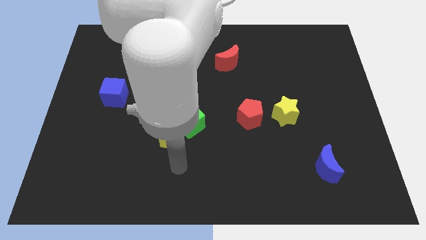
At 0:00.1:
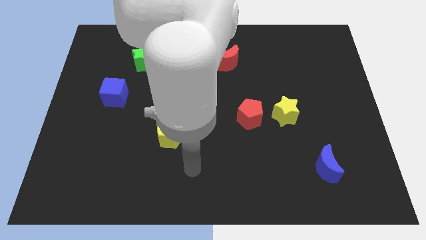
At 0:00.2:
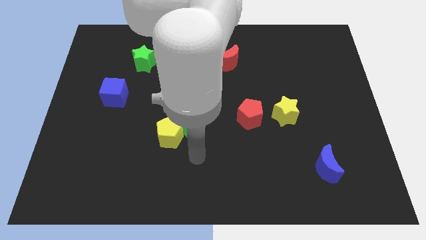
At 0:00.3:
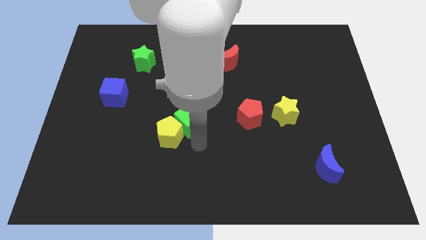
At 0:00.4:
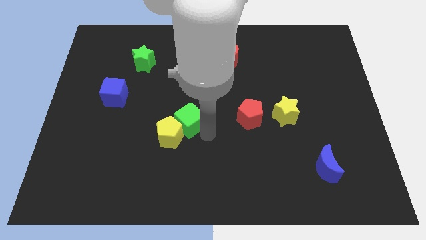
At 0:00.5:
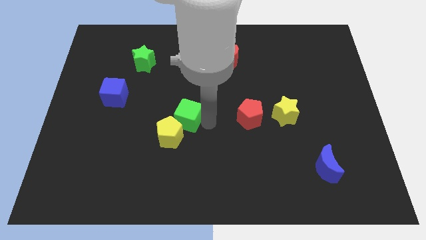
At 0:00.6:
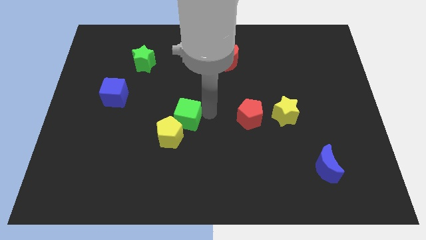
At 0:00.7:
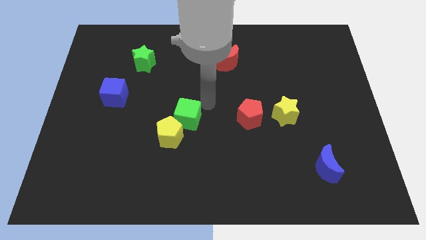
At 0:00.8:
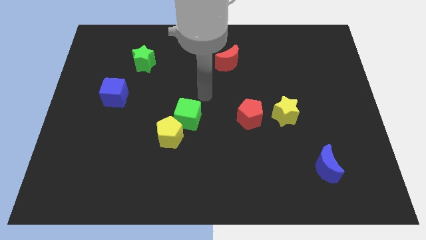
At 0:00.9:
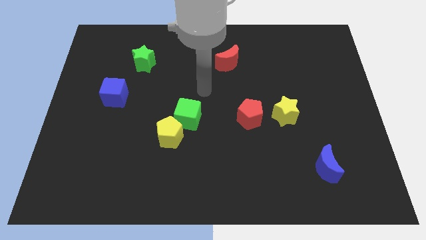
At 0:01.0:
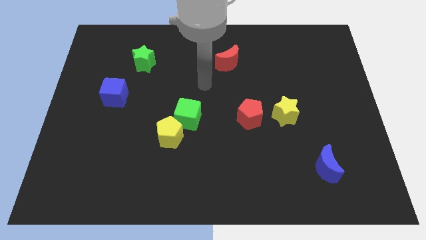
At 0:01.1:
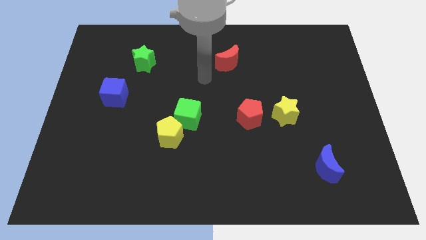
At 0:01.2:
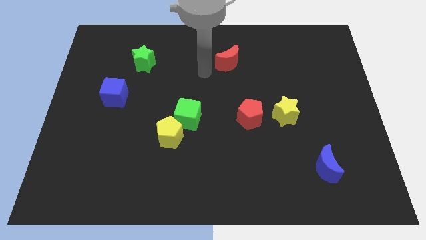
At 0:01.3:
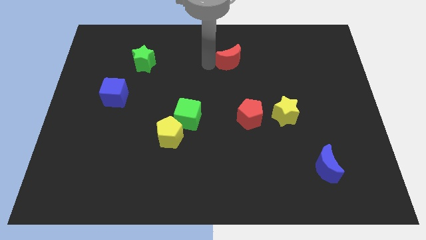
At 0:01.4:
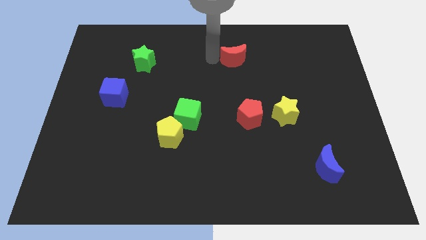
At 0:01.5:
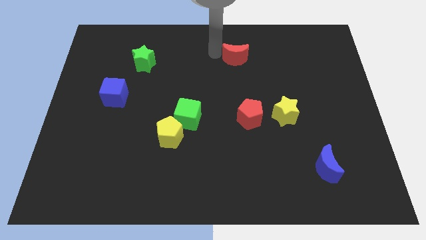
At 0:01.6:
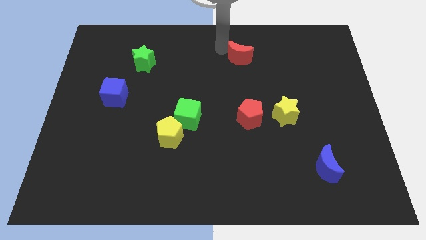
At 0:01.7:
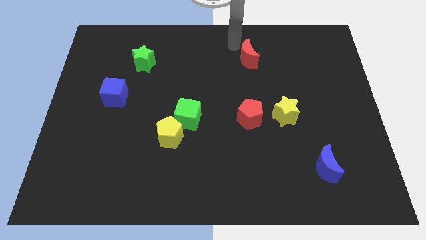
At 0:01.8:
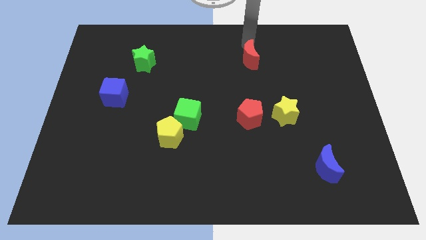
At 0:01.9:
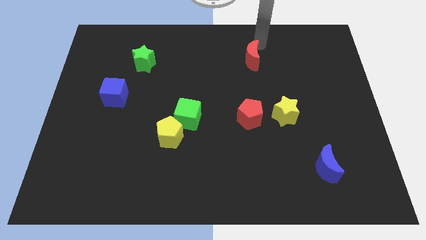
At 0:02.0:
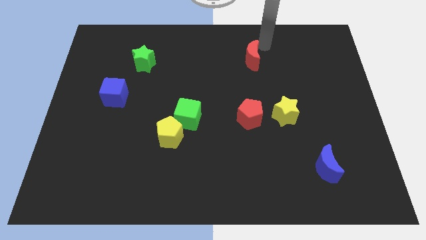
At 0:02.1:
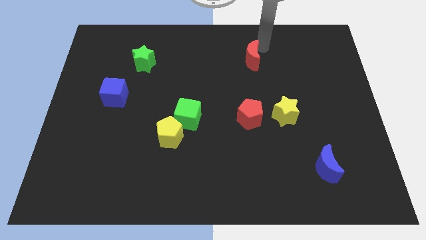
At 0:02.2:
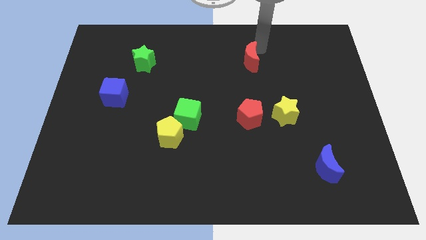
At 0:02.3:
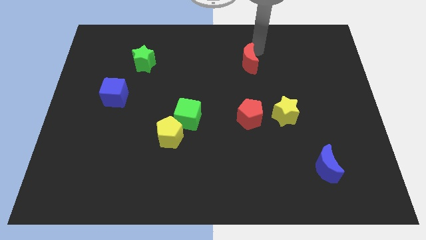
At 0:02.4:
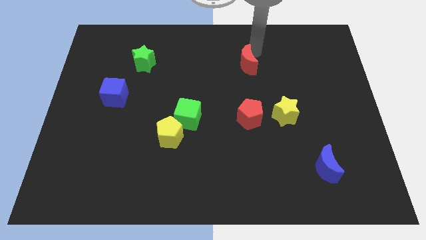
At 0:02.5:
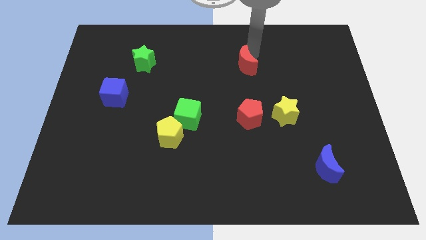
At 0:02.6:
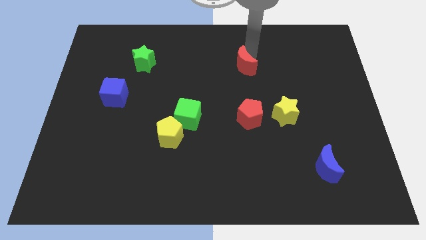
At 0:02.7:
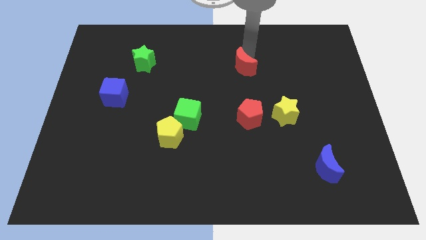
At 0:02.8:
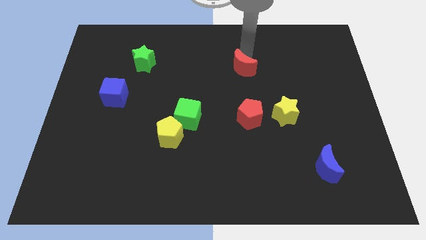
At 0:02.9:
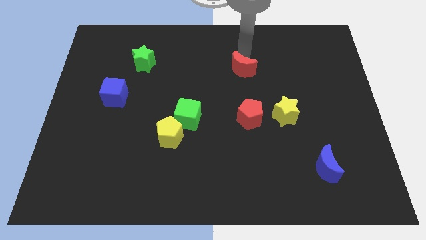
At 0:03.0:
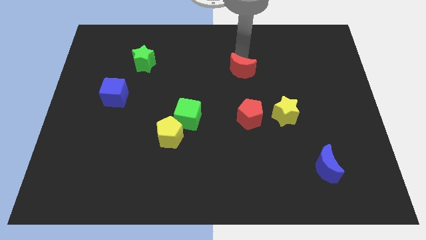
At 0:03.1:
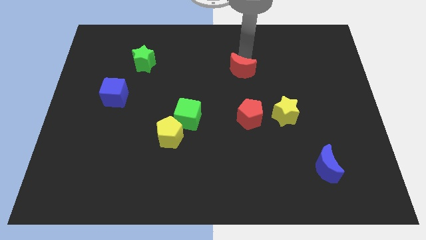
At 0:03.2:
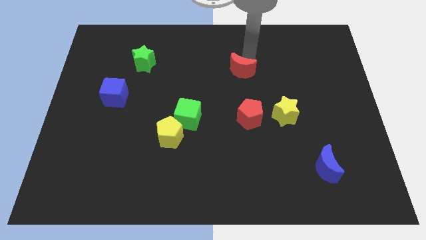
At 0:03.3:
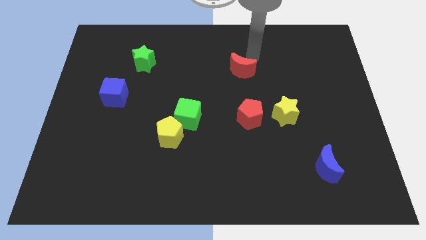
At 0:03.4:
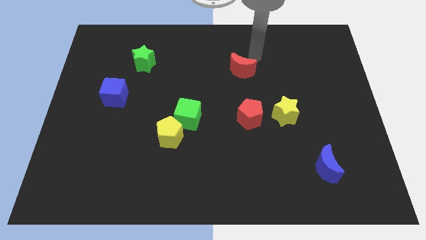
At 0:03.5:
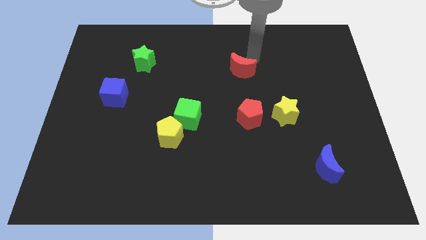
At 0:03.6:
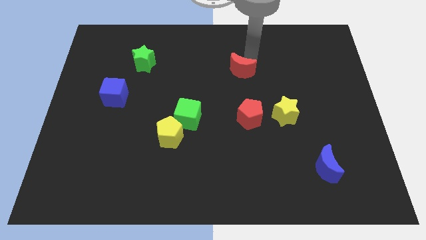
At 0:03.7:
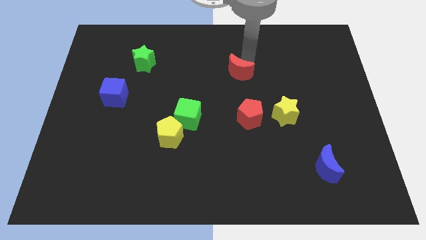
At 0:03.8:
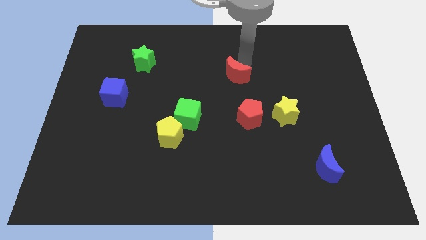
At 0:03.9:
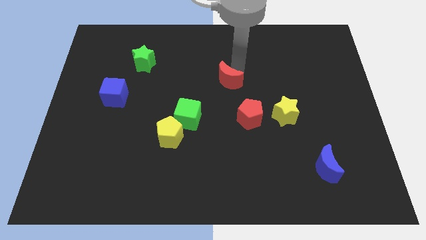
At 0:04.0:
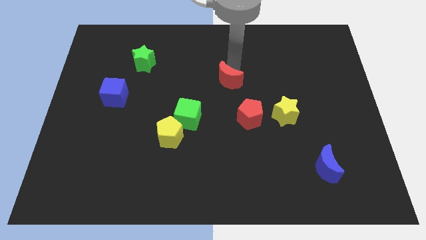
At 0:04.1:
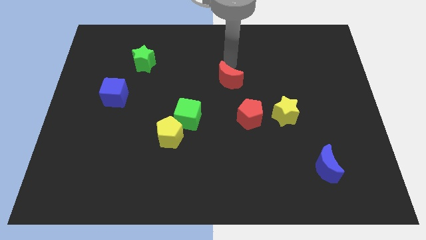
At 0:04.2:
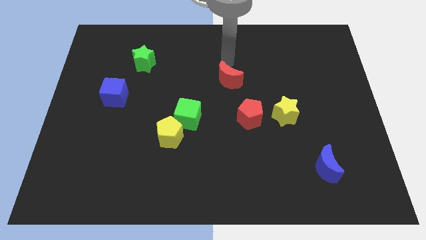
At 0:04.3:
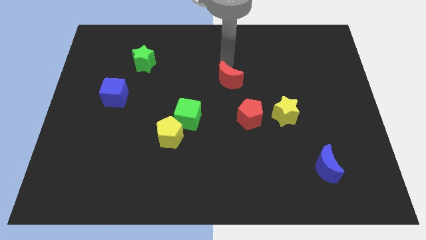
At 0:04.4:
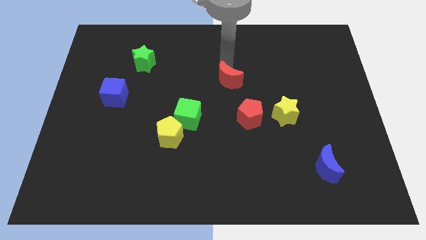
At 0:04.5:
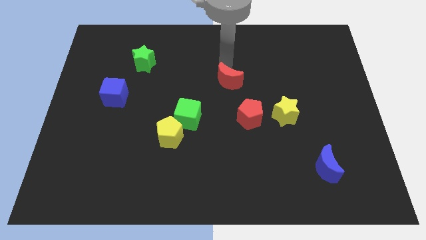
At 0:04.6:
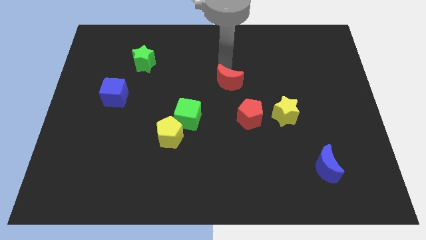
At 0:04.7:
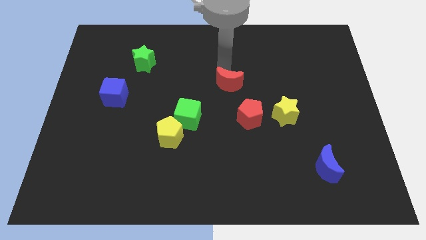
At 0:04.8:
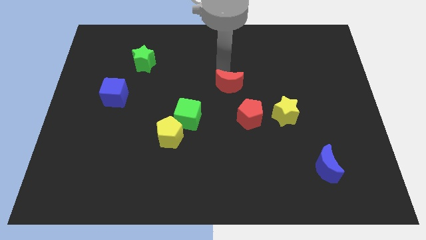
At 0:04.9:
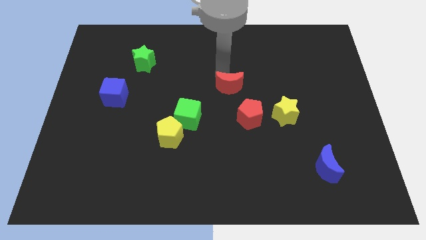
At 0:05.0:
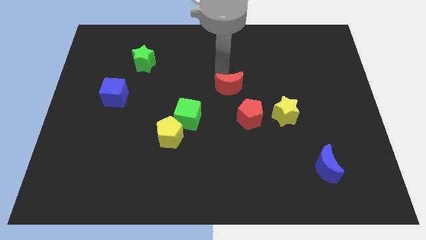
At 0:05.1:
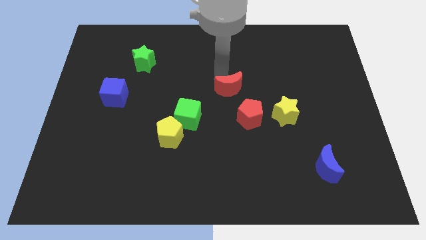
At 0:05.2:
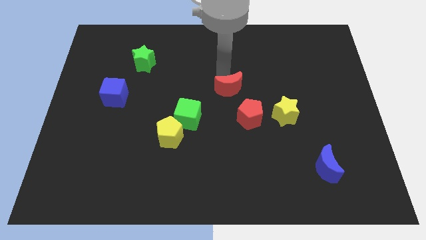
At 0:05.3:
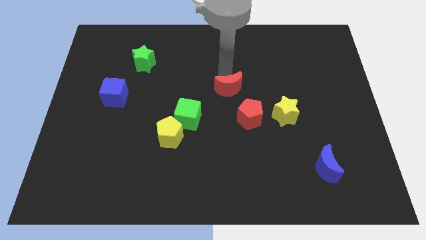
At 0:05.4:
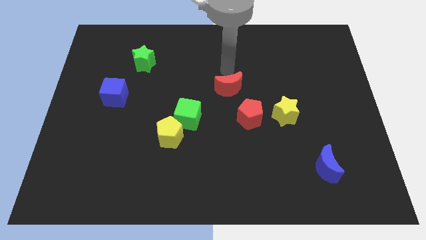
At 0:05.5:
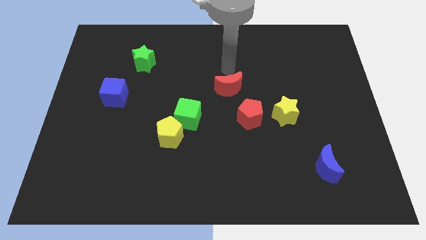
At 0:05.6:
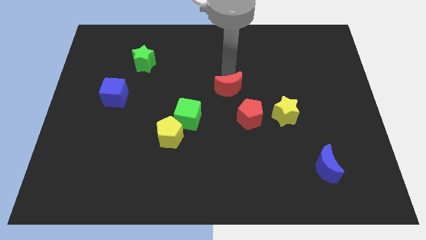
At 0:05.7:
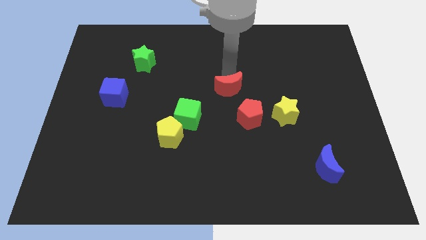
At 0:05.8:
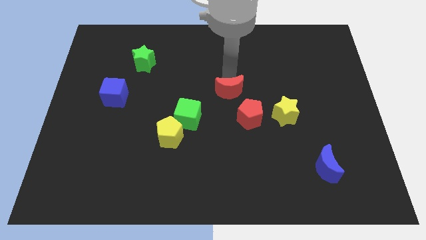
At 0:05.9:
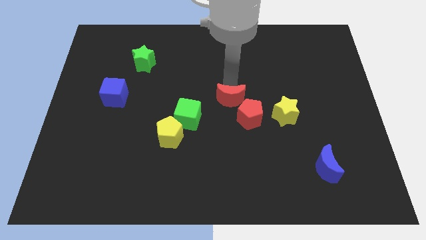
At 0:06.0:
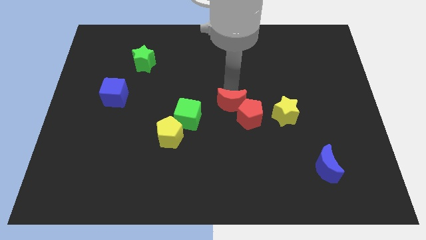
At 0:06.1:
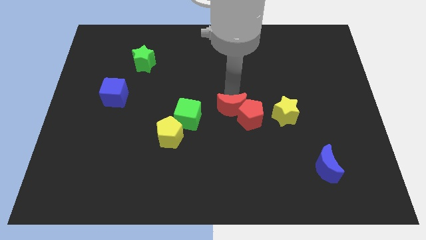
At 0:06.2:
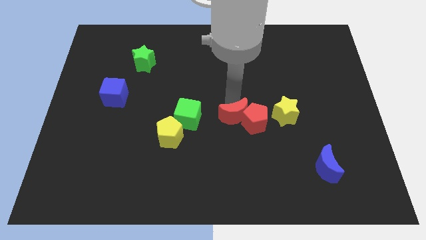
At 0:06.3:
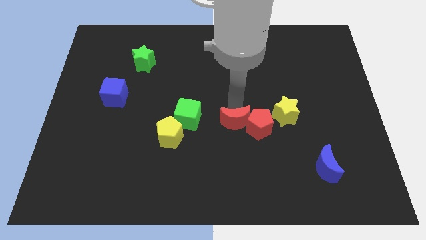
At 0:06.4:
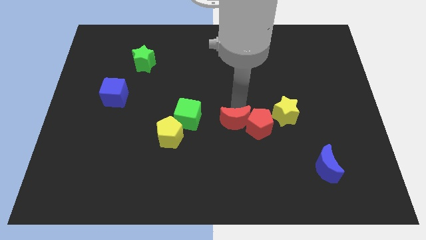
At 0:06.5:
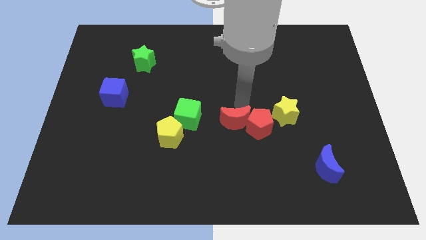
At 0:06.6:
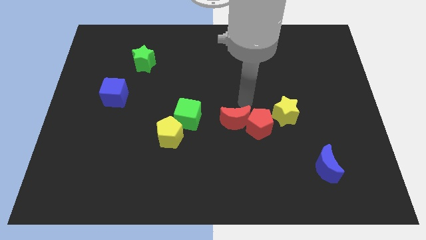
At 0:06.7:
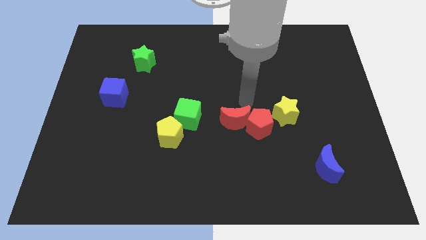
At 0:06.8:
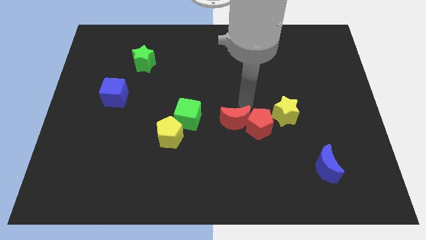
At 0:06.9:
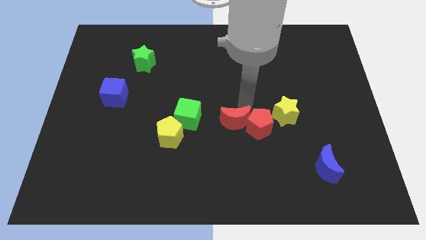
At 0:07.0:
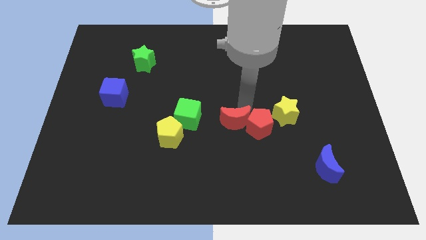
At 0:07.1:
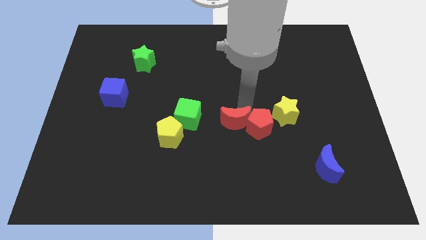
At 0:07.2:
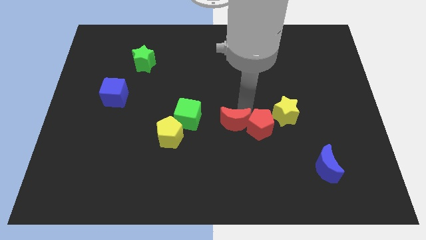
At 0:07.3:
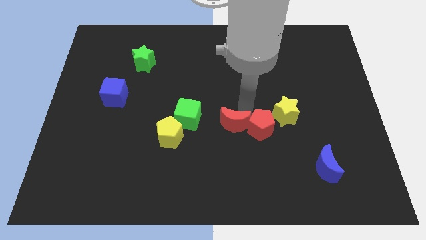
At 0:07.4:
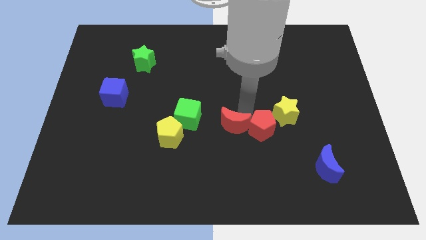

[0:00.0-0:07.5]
slide the red moon down
